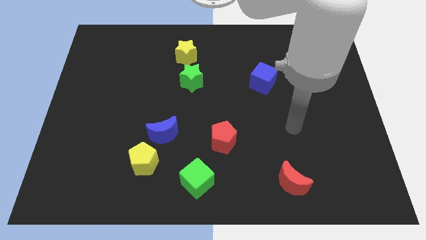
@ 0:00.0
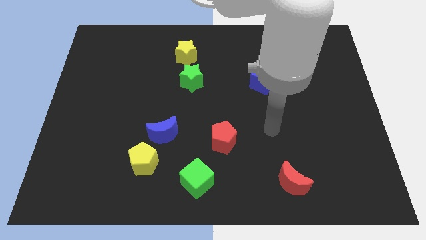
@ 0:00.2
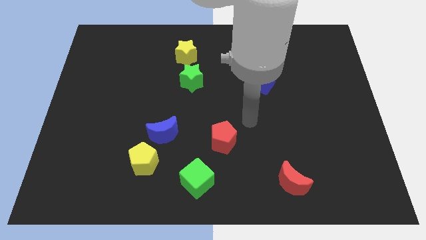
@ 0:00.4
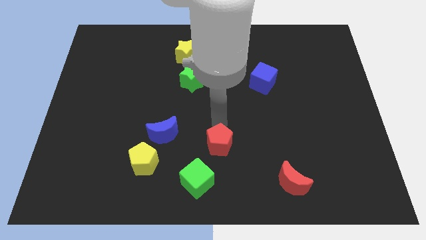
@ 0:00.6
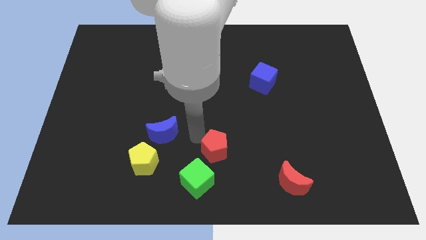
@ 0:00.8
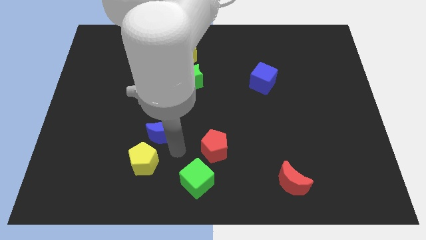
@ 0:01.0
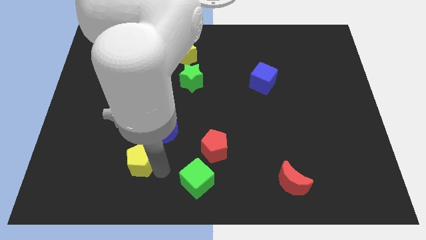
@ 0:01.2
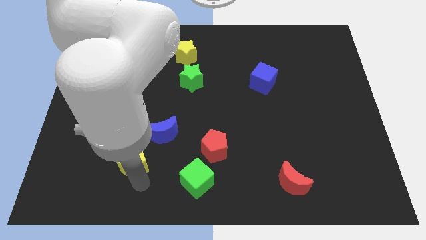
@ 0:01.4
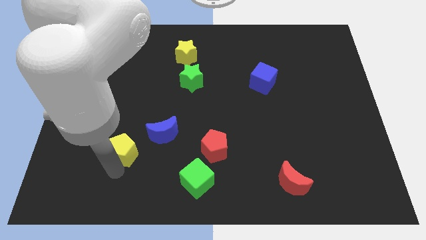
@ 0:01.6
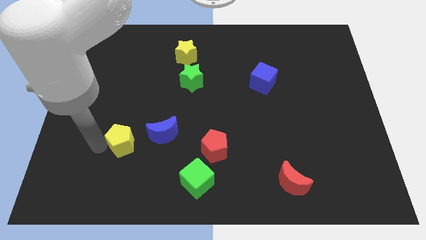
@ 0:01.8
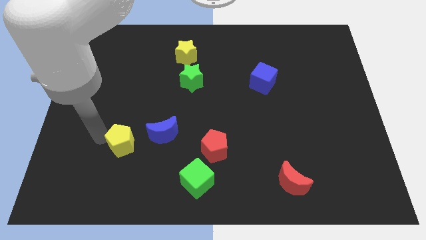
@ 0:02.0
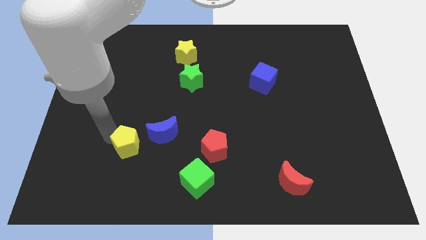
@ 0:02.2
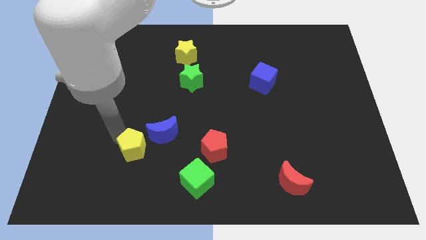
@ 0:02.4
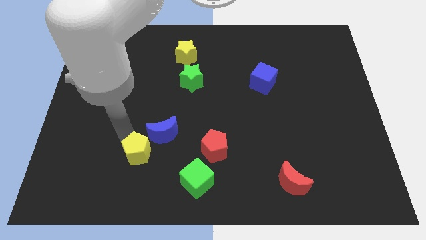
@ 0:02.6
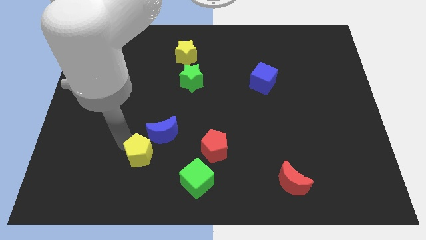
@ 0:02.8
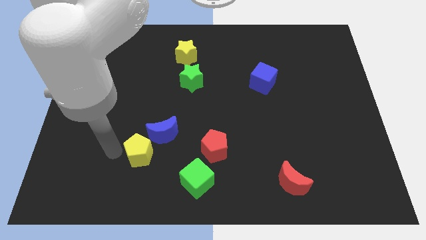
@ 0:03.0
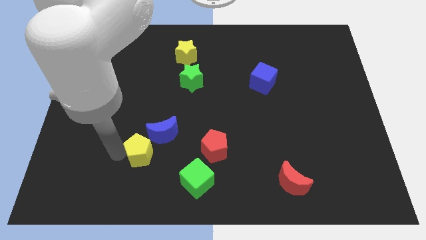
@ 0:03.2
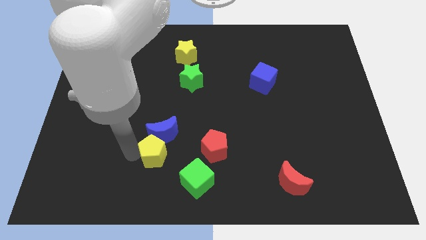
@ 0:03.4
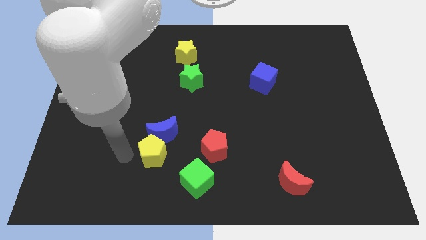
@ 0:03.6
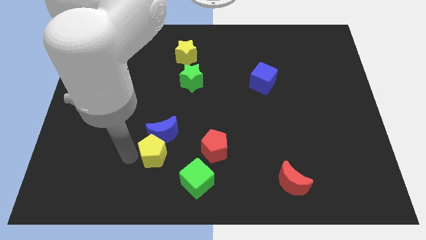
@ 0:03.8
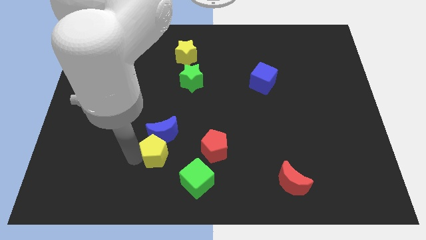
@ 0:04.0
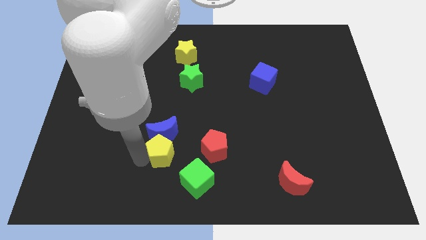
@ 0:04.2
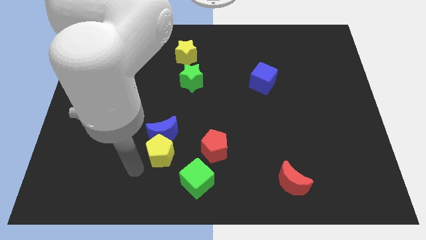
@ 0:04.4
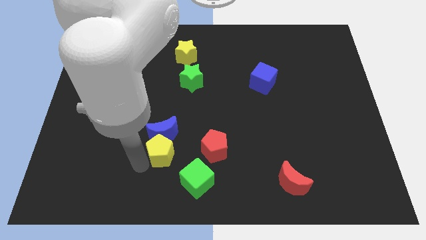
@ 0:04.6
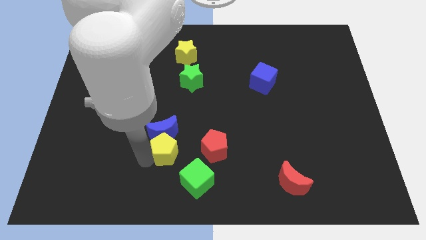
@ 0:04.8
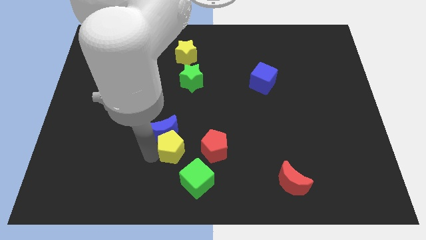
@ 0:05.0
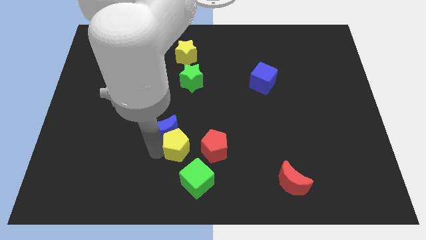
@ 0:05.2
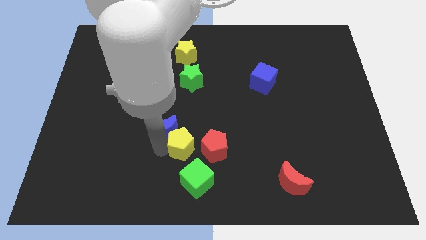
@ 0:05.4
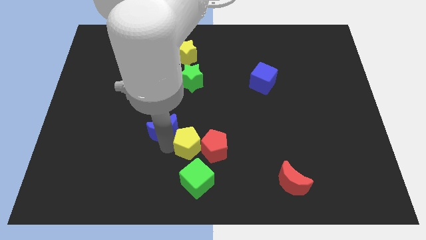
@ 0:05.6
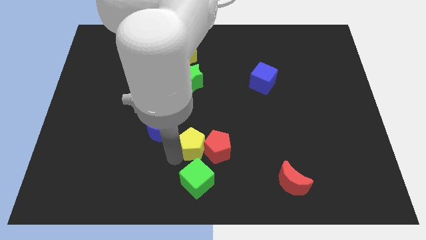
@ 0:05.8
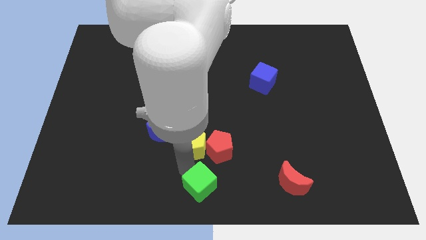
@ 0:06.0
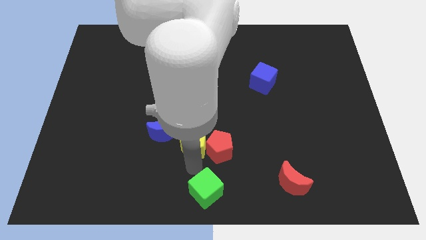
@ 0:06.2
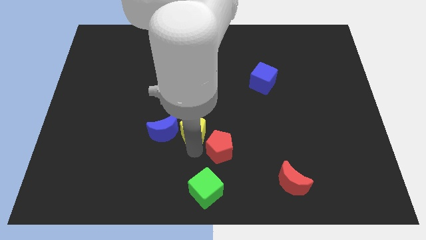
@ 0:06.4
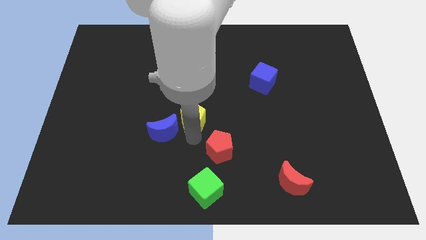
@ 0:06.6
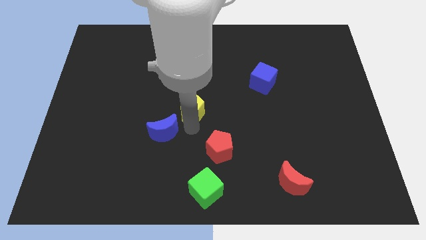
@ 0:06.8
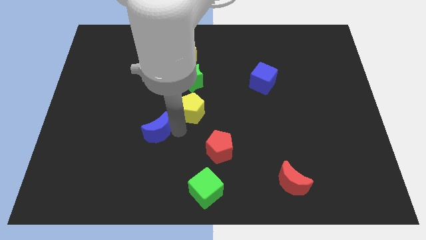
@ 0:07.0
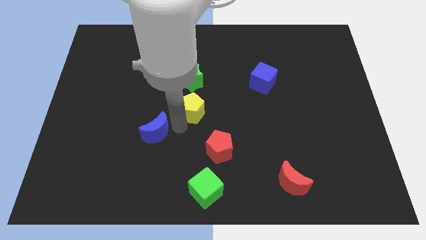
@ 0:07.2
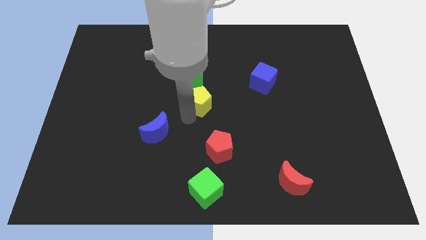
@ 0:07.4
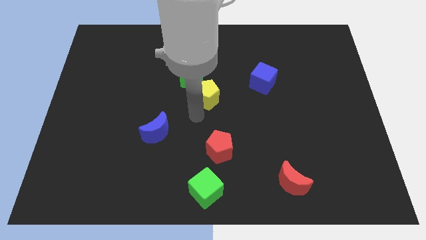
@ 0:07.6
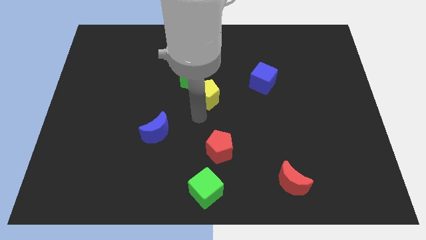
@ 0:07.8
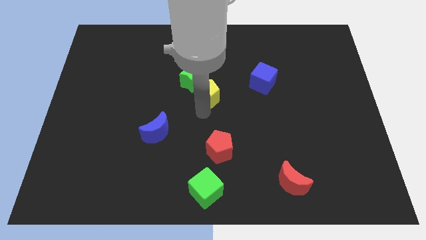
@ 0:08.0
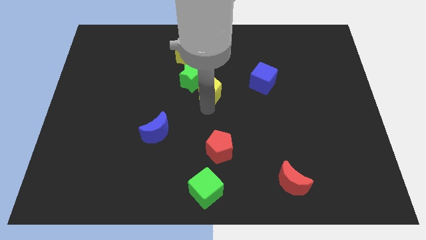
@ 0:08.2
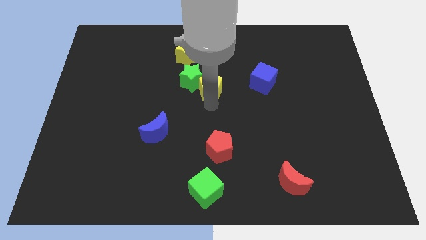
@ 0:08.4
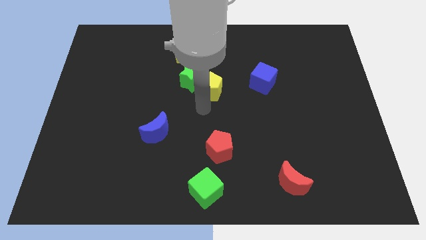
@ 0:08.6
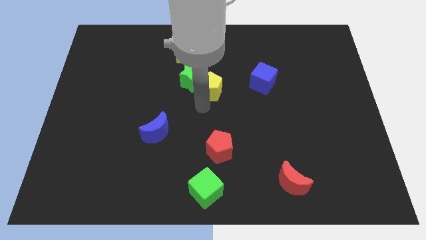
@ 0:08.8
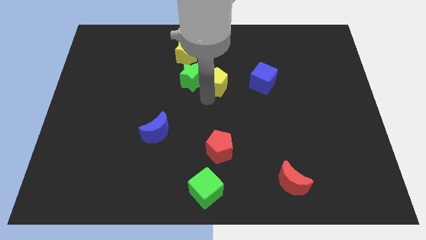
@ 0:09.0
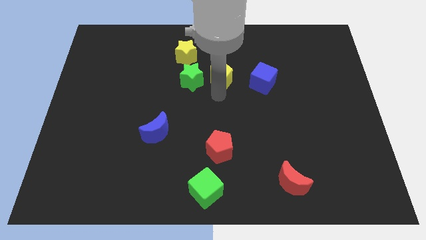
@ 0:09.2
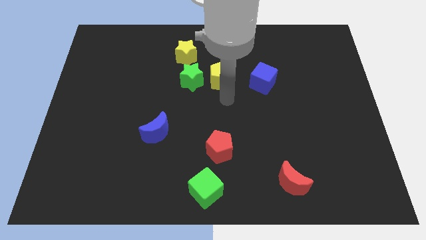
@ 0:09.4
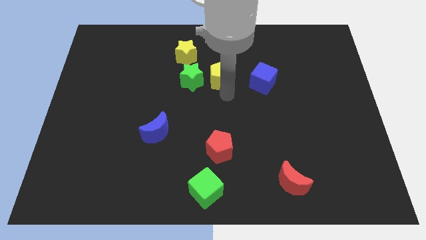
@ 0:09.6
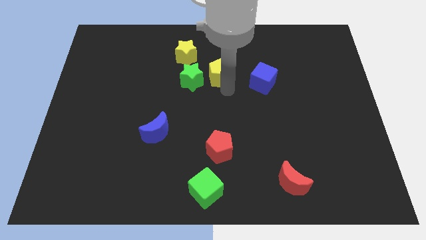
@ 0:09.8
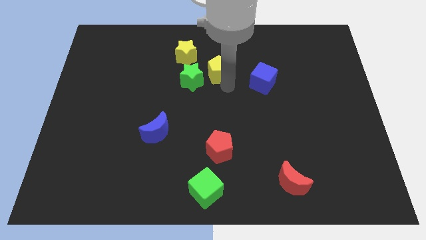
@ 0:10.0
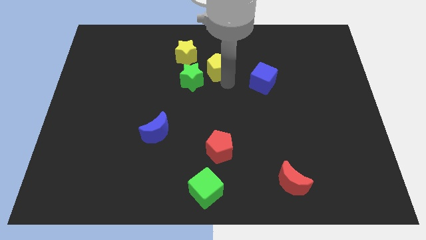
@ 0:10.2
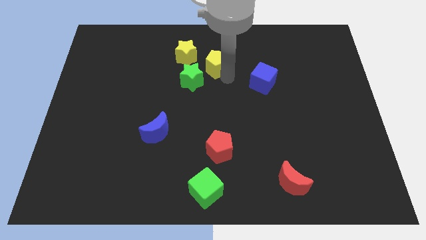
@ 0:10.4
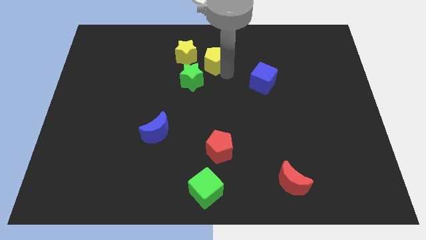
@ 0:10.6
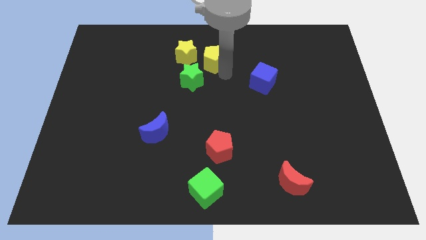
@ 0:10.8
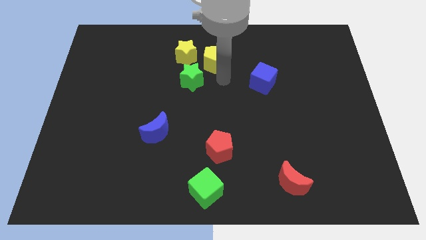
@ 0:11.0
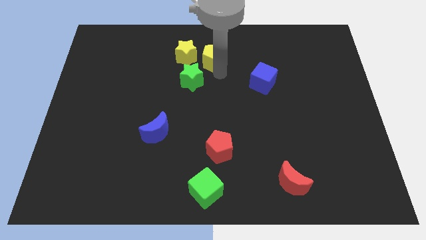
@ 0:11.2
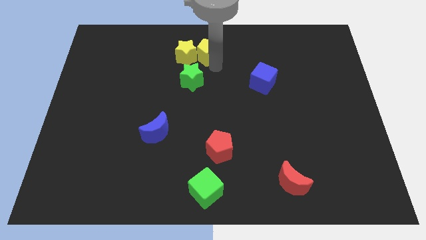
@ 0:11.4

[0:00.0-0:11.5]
put the yellow pentagon to the top
